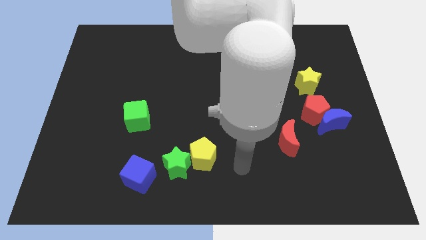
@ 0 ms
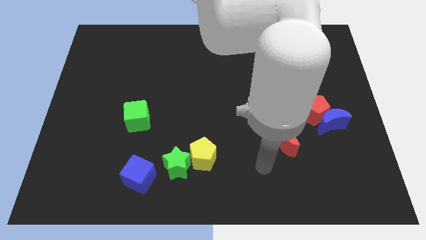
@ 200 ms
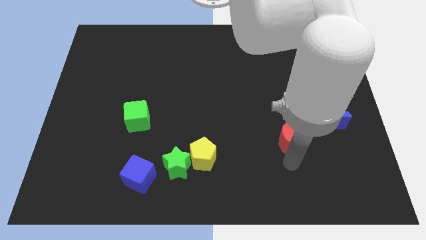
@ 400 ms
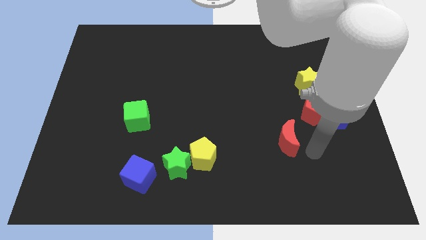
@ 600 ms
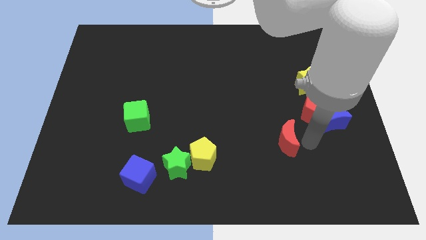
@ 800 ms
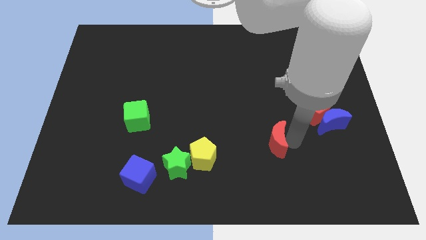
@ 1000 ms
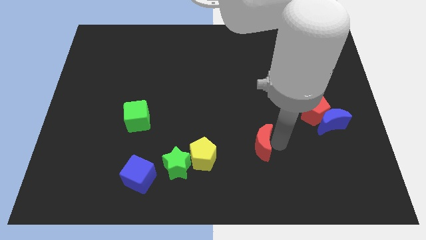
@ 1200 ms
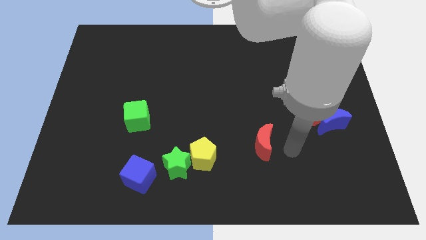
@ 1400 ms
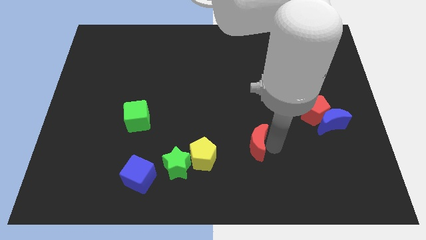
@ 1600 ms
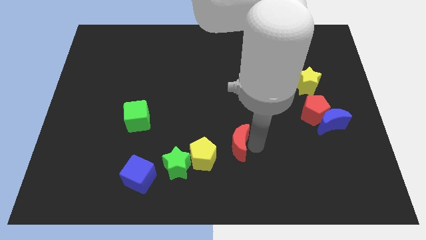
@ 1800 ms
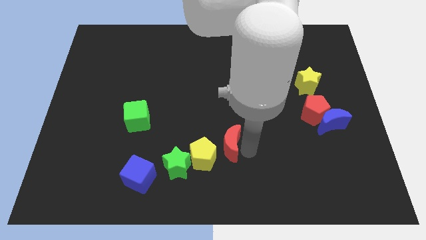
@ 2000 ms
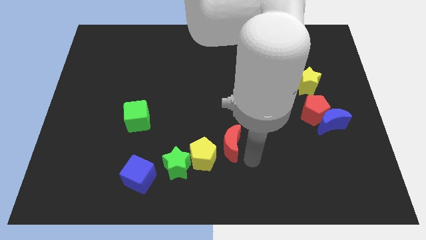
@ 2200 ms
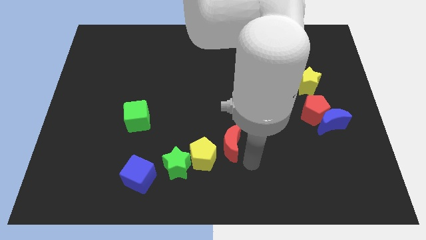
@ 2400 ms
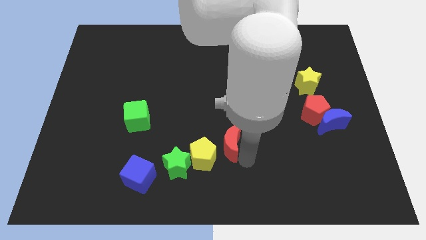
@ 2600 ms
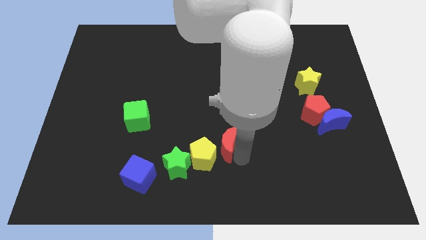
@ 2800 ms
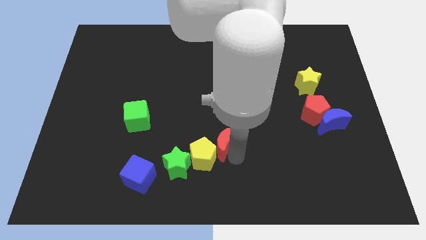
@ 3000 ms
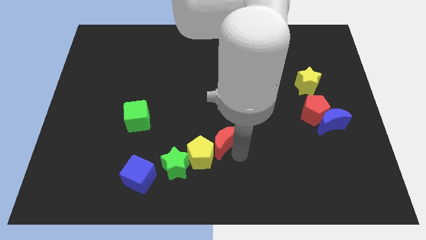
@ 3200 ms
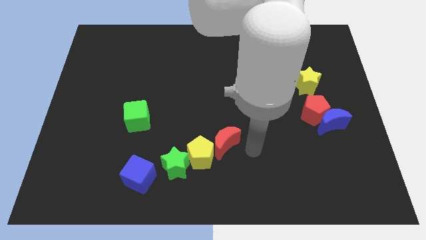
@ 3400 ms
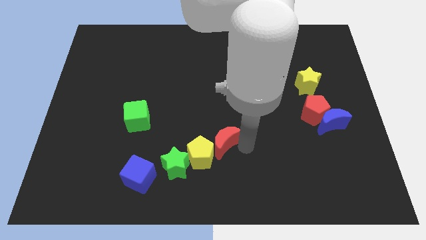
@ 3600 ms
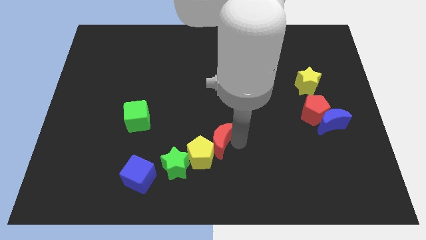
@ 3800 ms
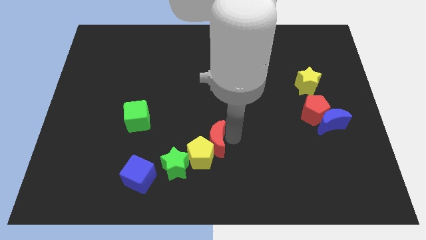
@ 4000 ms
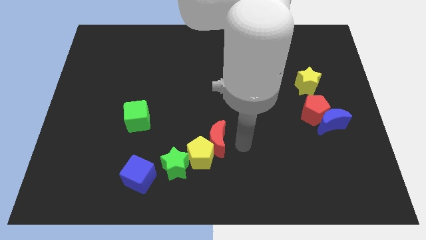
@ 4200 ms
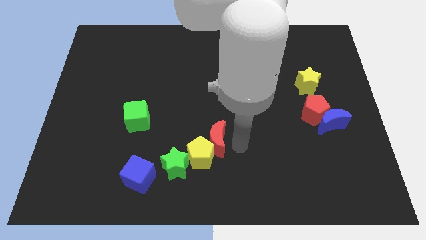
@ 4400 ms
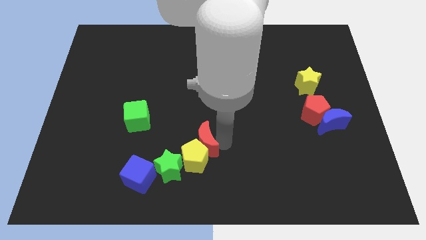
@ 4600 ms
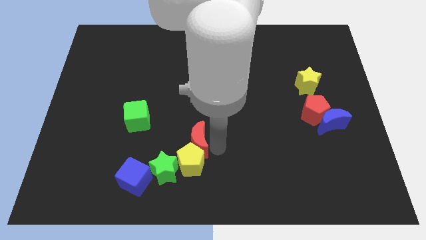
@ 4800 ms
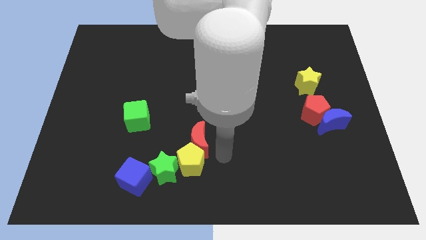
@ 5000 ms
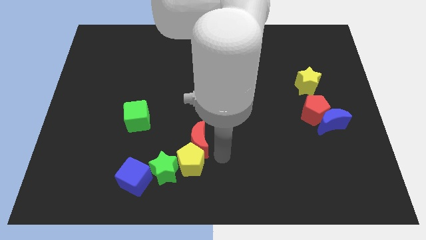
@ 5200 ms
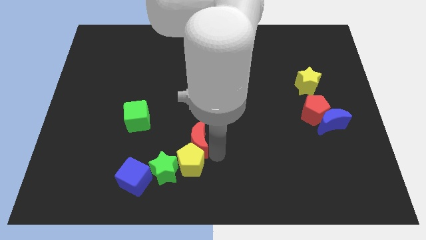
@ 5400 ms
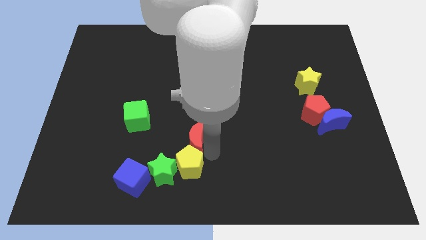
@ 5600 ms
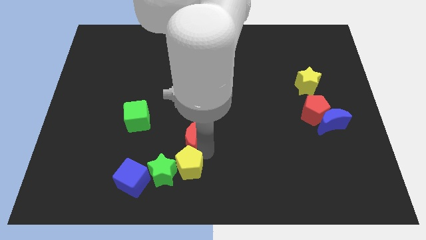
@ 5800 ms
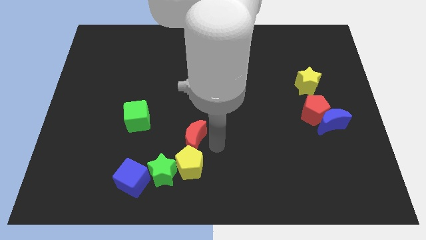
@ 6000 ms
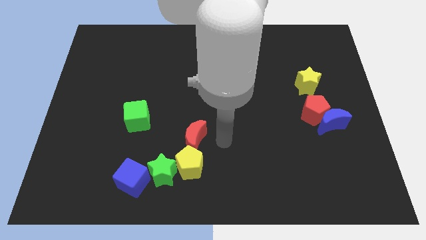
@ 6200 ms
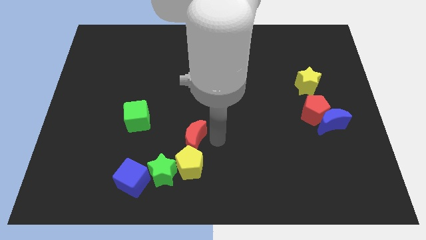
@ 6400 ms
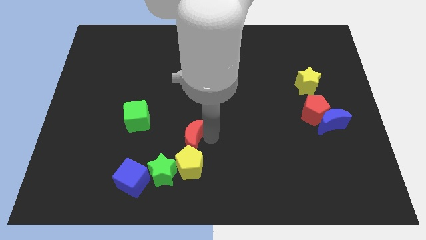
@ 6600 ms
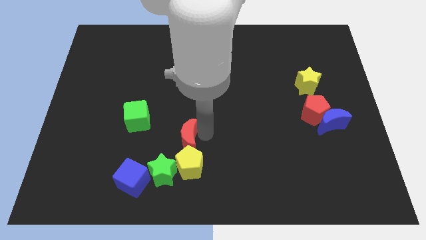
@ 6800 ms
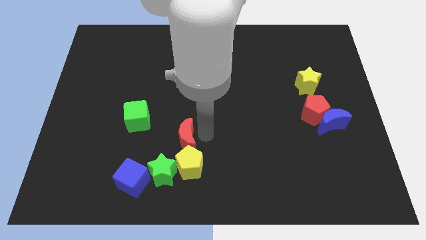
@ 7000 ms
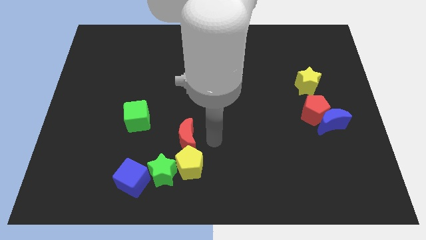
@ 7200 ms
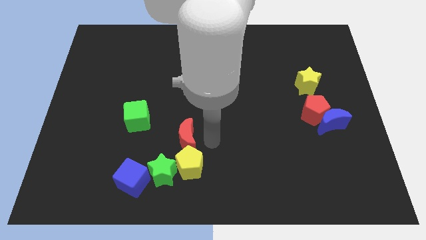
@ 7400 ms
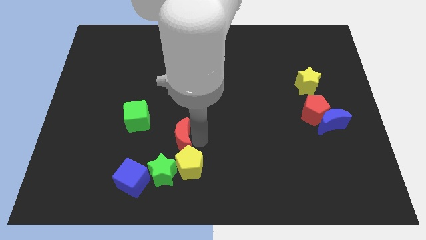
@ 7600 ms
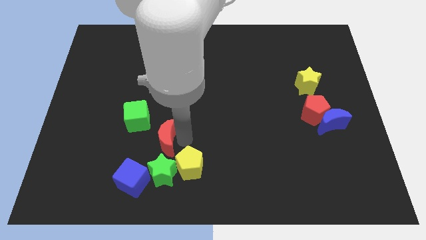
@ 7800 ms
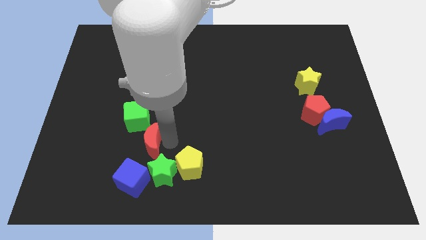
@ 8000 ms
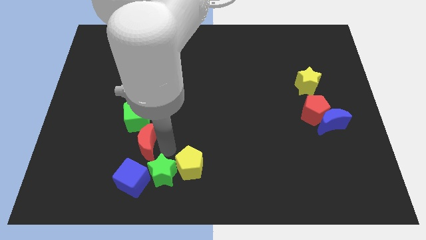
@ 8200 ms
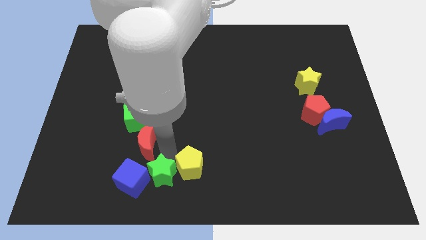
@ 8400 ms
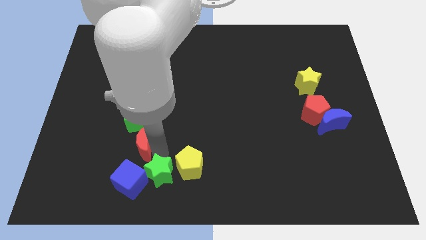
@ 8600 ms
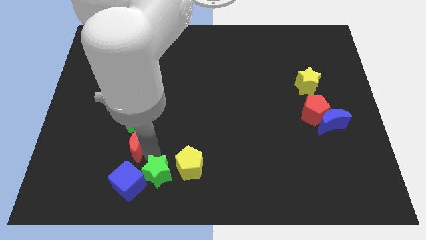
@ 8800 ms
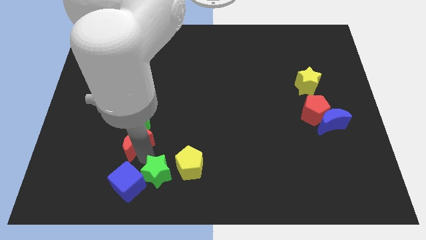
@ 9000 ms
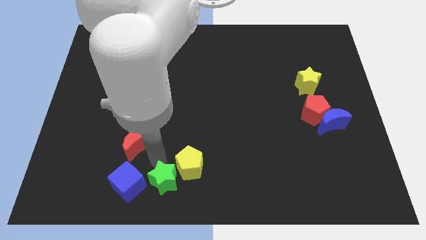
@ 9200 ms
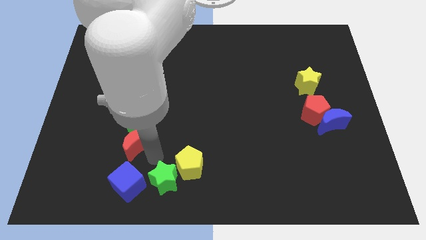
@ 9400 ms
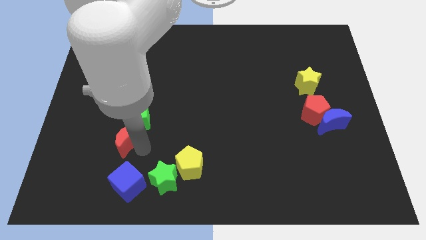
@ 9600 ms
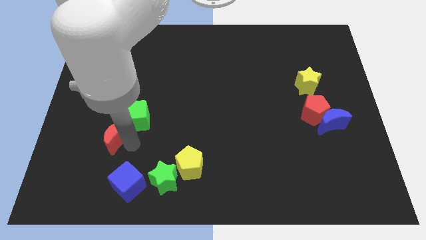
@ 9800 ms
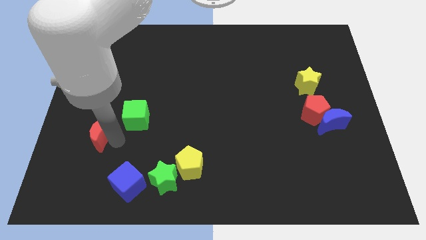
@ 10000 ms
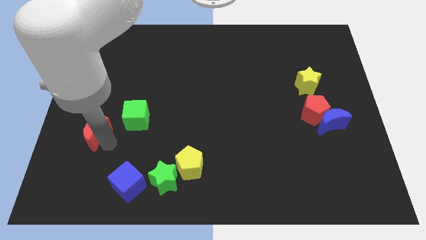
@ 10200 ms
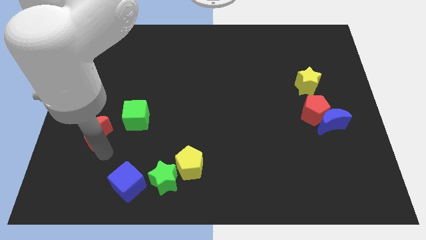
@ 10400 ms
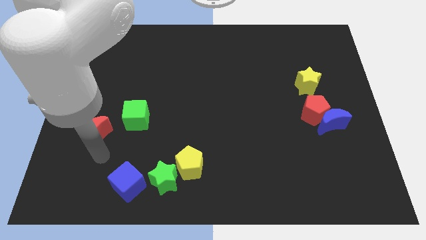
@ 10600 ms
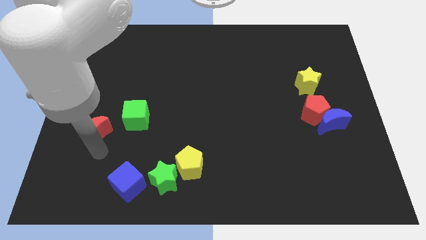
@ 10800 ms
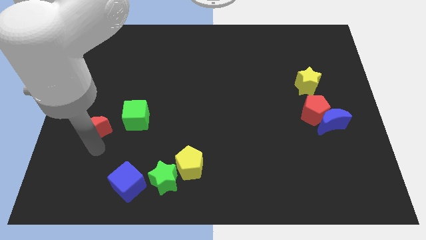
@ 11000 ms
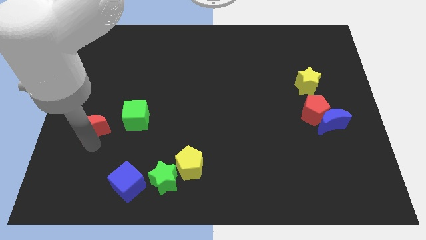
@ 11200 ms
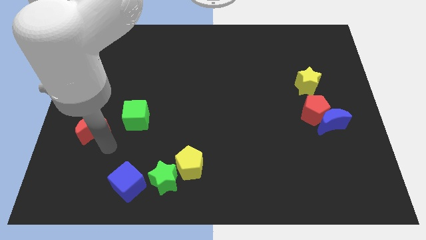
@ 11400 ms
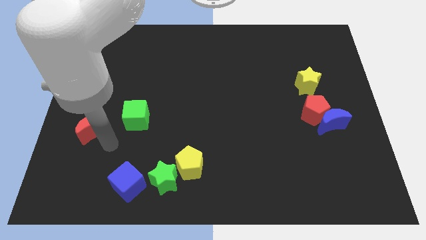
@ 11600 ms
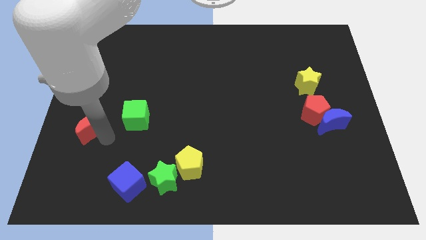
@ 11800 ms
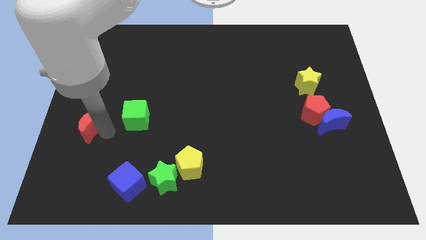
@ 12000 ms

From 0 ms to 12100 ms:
put the red moon to the left side of the board

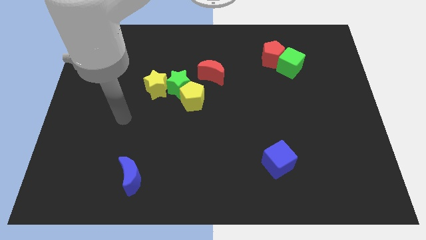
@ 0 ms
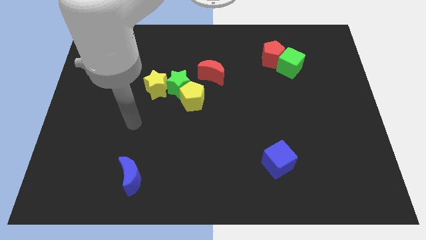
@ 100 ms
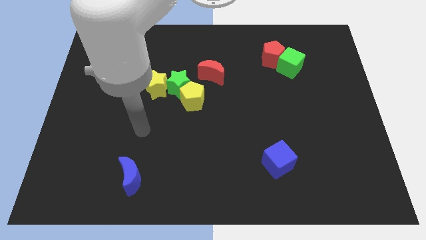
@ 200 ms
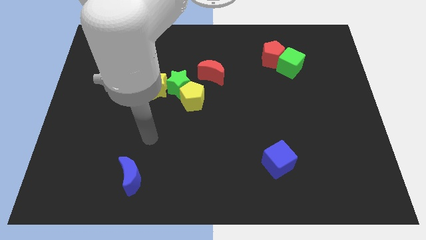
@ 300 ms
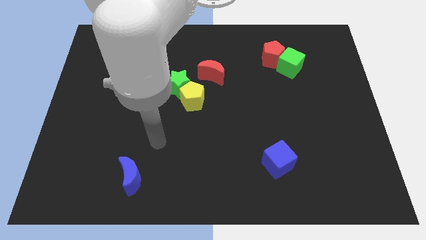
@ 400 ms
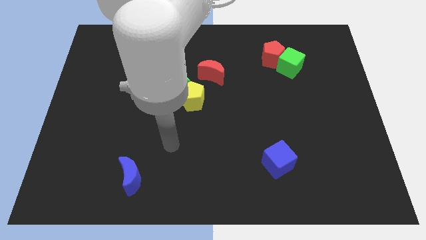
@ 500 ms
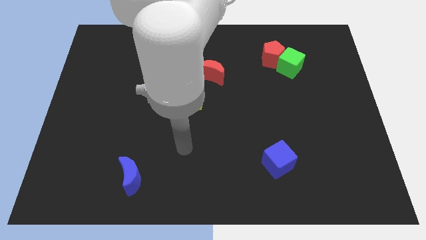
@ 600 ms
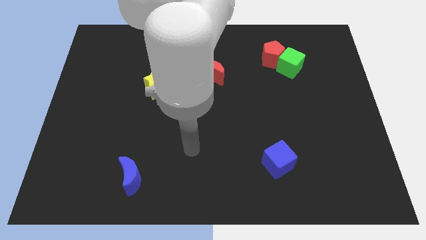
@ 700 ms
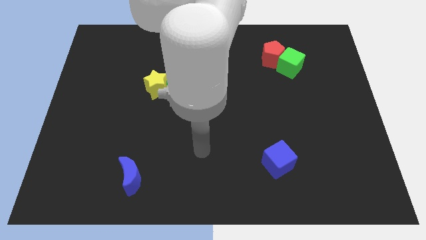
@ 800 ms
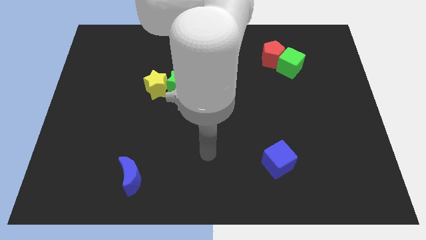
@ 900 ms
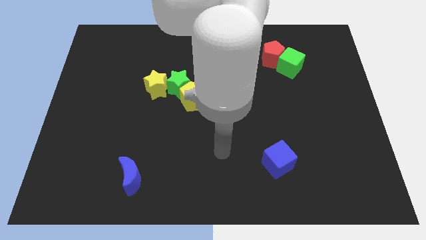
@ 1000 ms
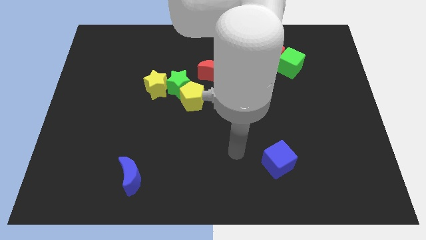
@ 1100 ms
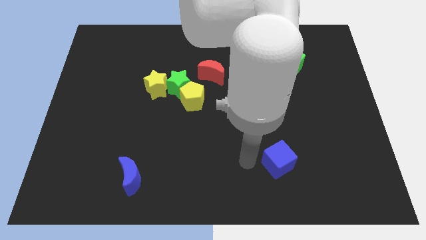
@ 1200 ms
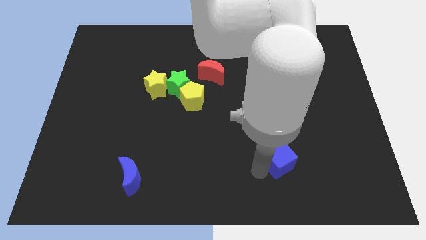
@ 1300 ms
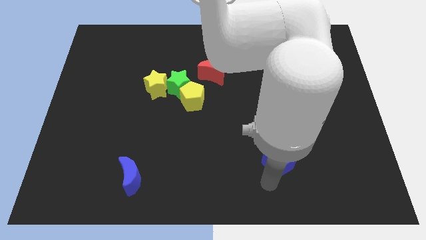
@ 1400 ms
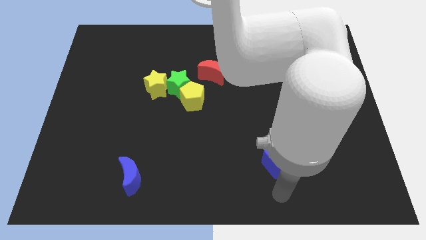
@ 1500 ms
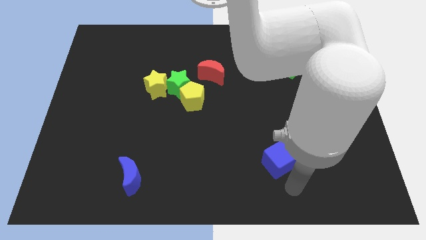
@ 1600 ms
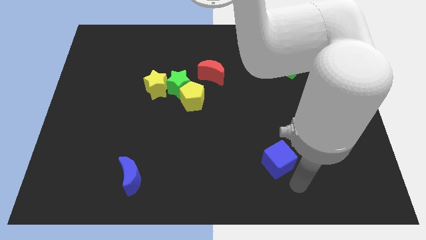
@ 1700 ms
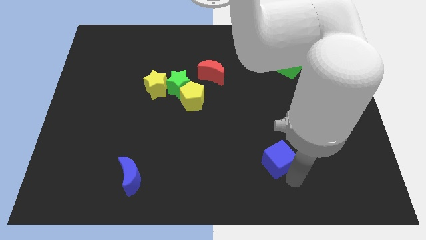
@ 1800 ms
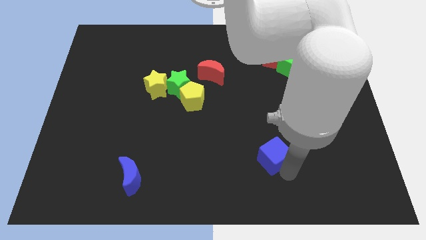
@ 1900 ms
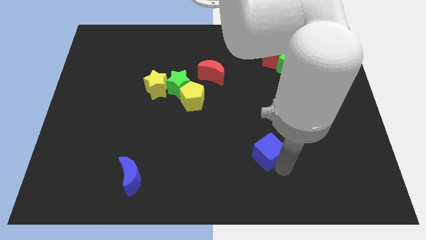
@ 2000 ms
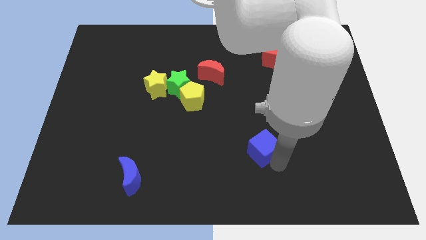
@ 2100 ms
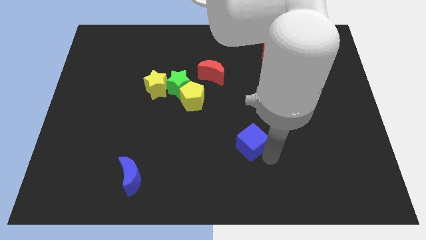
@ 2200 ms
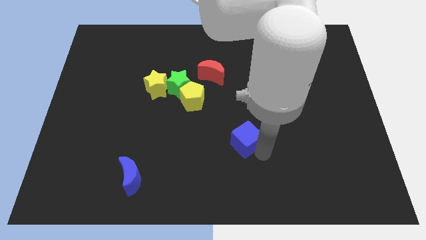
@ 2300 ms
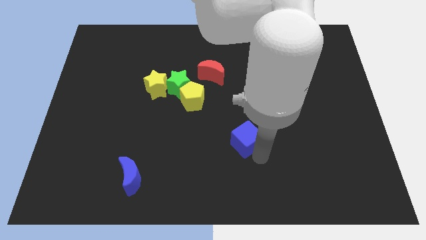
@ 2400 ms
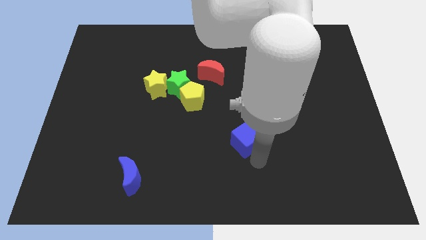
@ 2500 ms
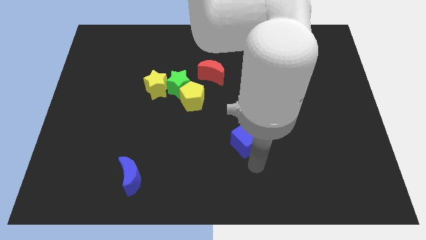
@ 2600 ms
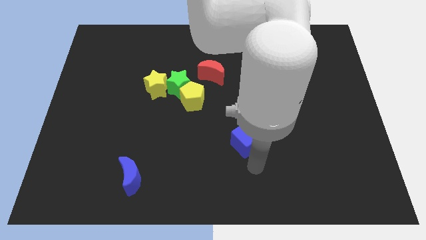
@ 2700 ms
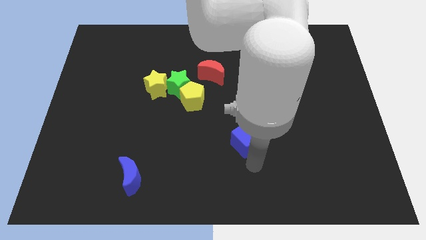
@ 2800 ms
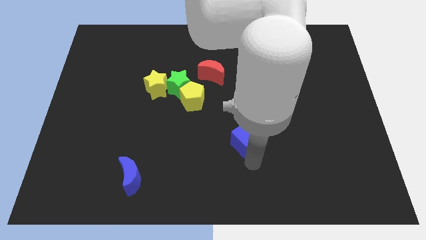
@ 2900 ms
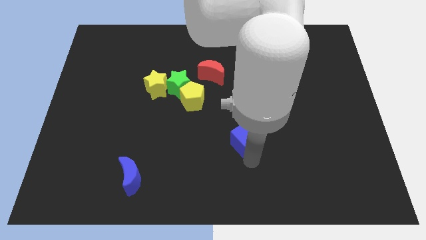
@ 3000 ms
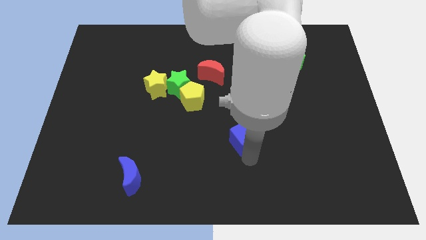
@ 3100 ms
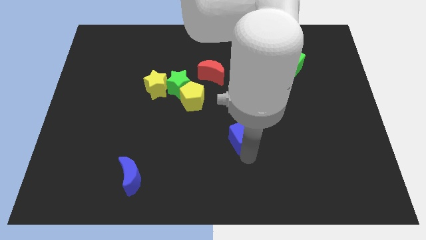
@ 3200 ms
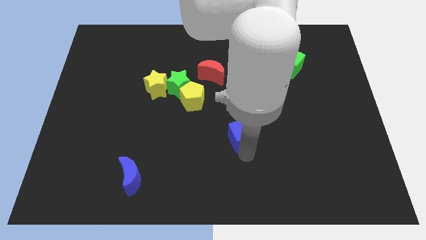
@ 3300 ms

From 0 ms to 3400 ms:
slide the blue cube to the middle of the board
